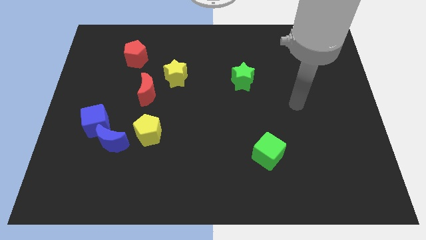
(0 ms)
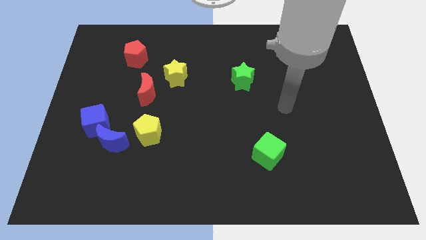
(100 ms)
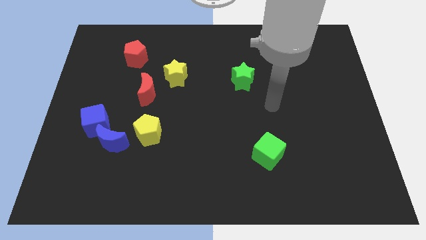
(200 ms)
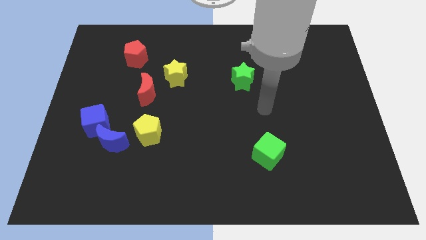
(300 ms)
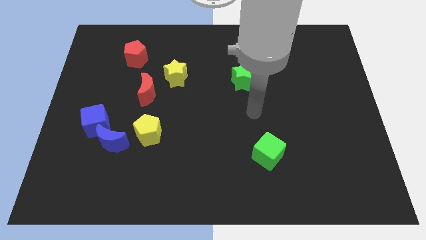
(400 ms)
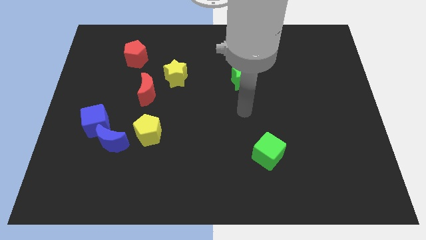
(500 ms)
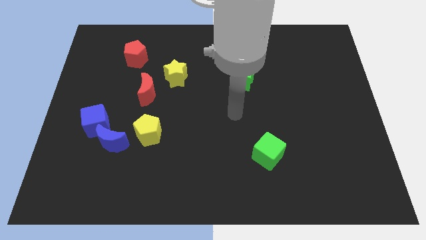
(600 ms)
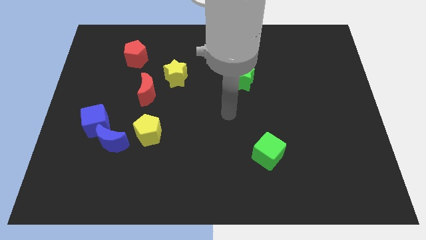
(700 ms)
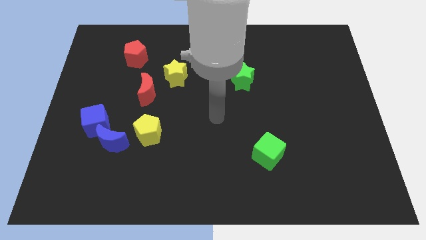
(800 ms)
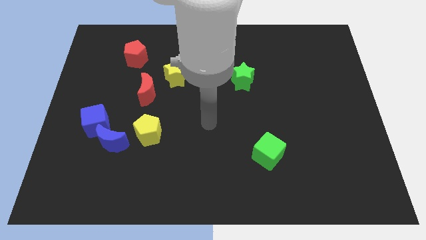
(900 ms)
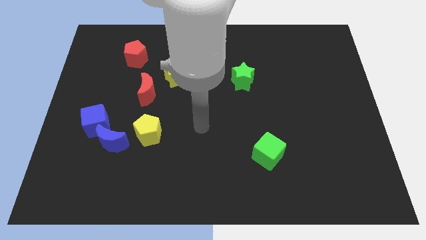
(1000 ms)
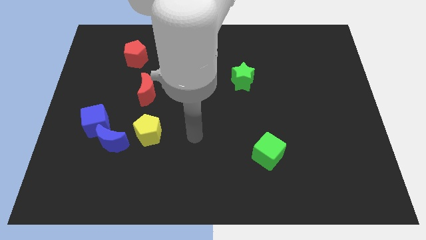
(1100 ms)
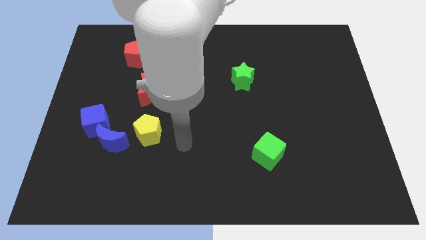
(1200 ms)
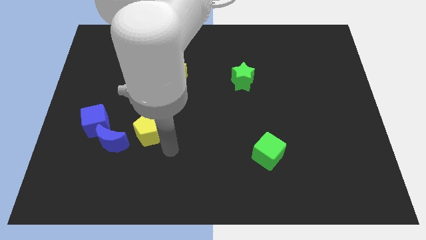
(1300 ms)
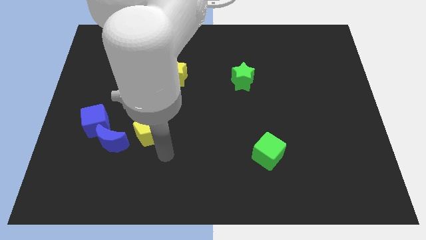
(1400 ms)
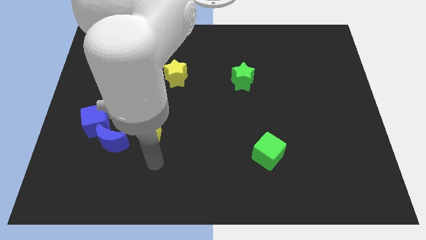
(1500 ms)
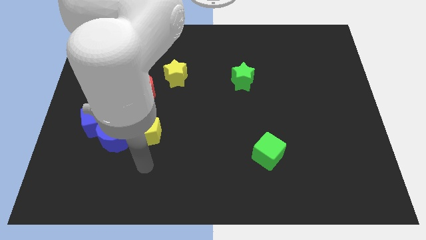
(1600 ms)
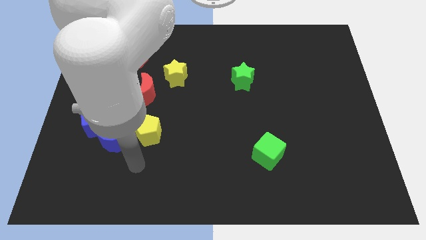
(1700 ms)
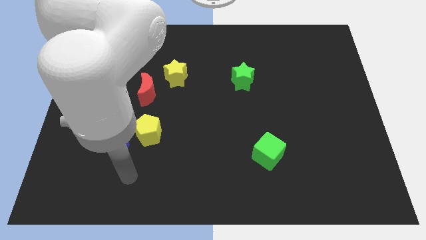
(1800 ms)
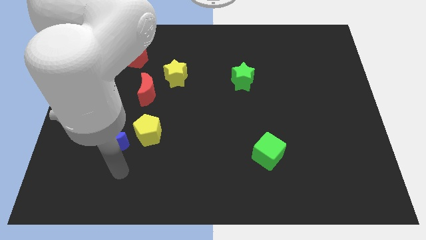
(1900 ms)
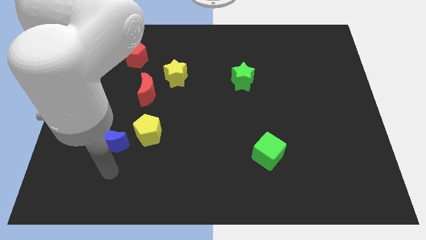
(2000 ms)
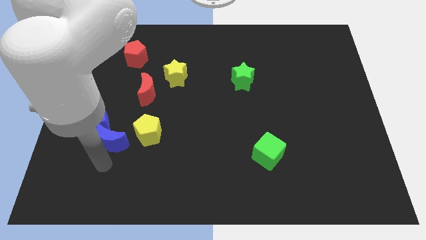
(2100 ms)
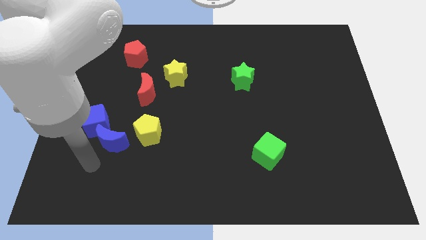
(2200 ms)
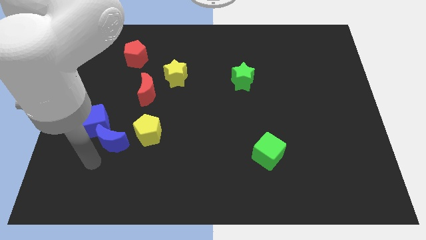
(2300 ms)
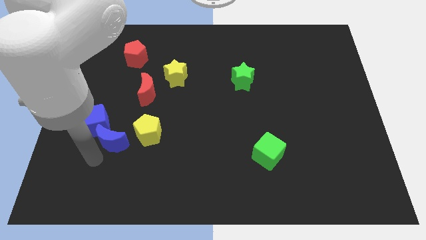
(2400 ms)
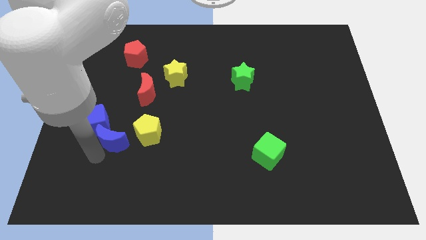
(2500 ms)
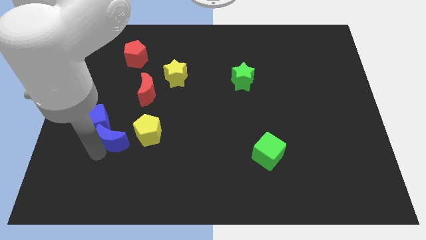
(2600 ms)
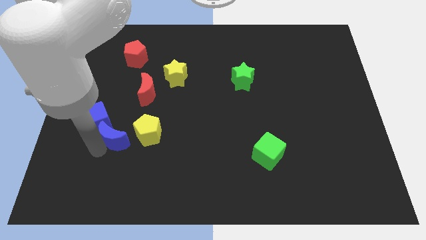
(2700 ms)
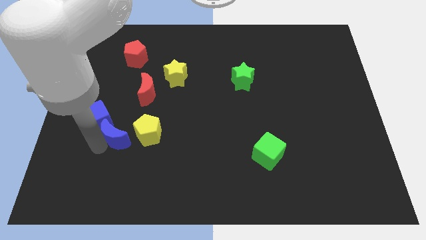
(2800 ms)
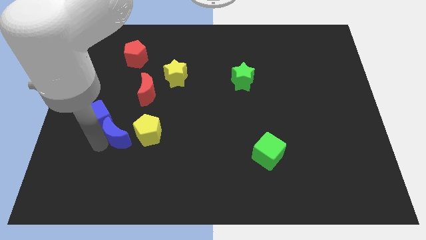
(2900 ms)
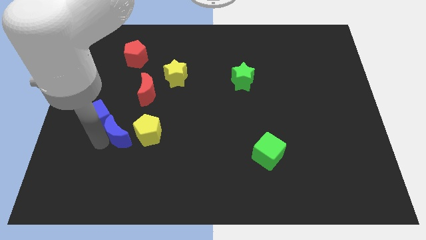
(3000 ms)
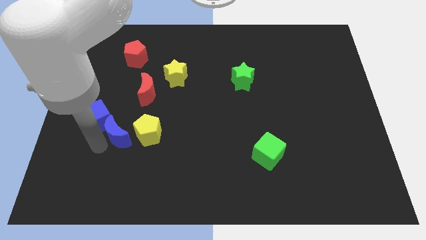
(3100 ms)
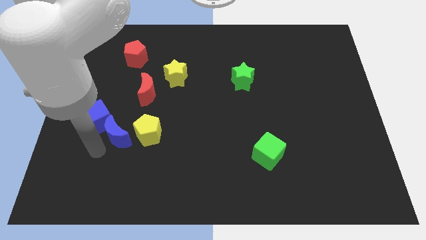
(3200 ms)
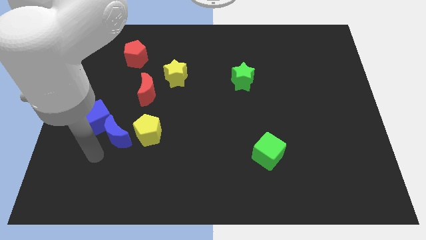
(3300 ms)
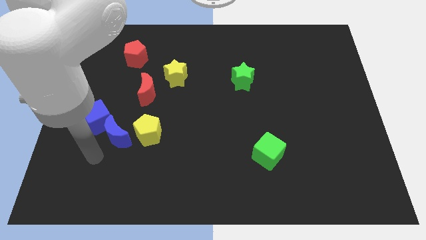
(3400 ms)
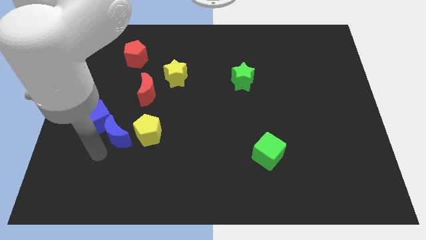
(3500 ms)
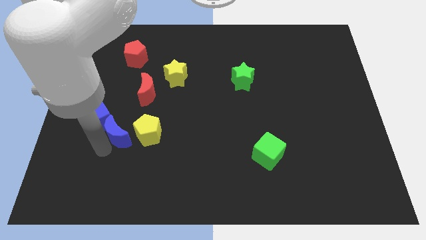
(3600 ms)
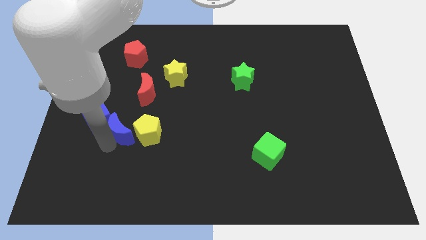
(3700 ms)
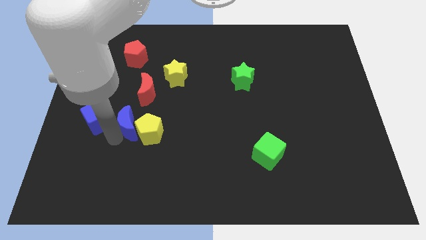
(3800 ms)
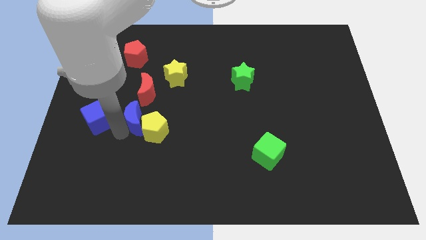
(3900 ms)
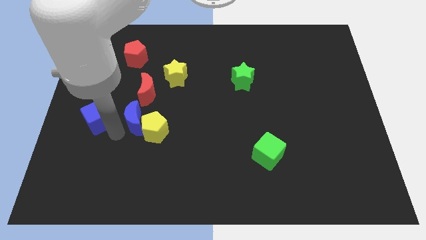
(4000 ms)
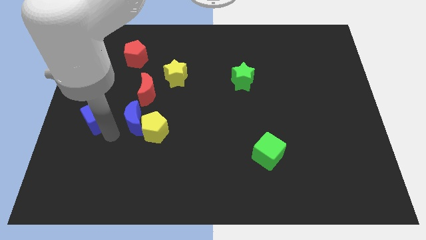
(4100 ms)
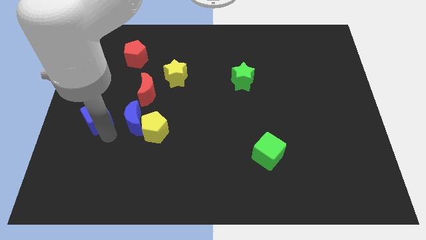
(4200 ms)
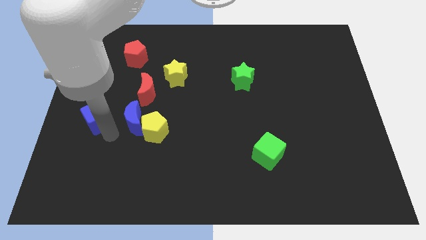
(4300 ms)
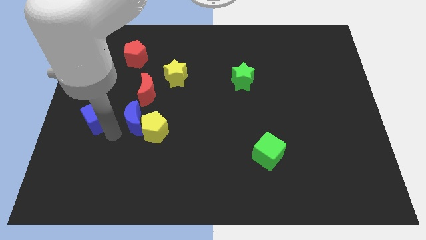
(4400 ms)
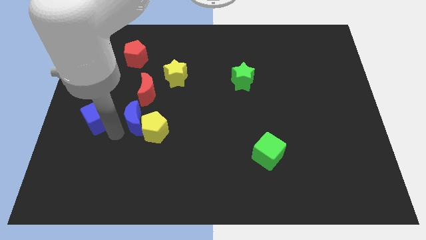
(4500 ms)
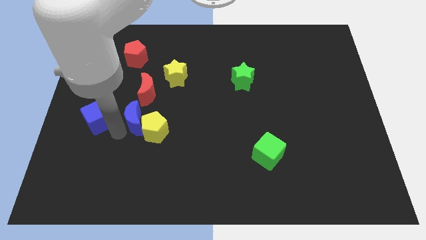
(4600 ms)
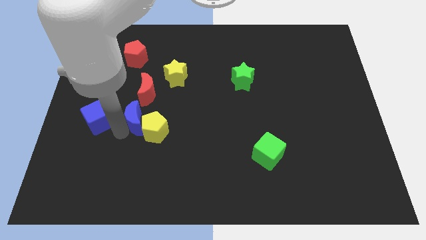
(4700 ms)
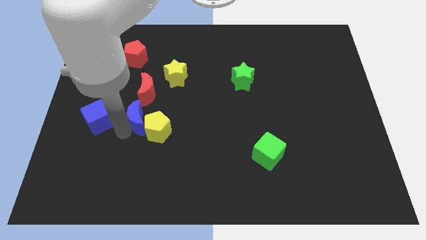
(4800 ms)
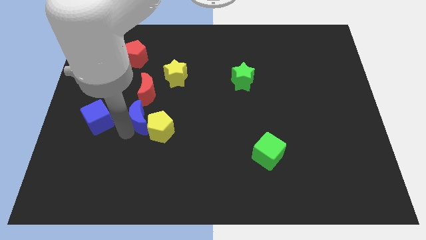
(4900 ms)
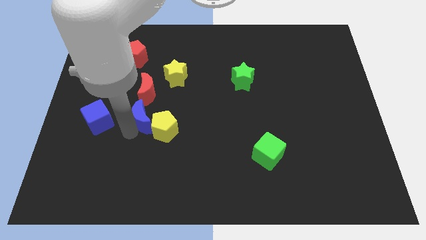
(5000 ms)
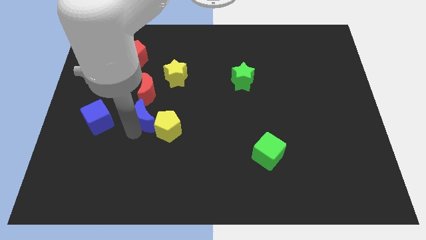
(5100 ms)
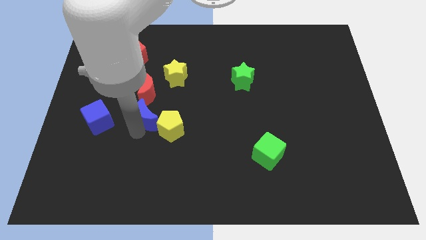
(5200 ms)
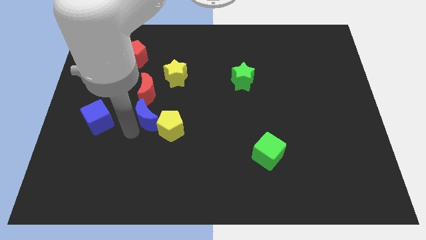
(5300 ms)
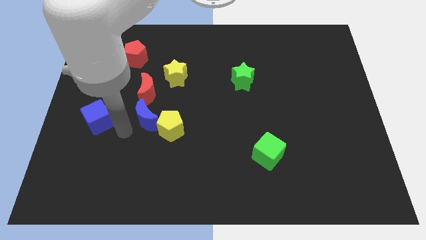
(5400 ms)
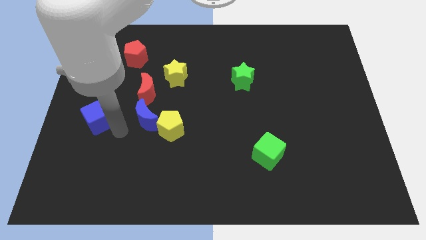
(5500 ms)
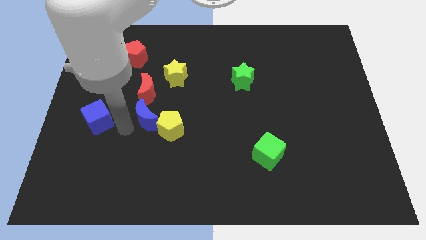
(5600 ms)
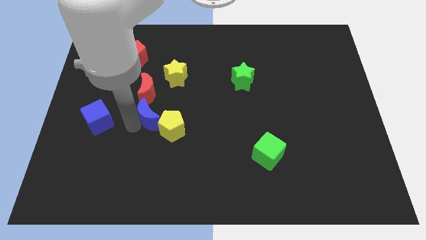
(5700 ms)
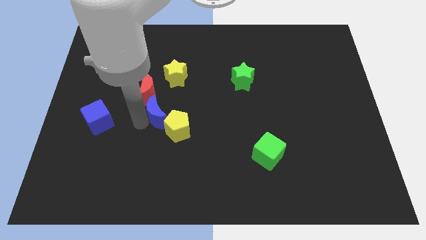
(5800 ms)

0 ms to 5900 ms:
move the blue moon to the bottom side of the yellow star

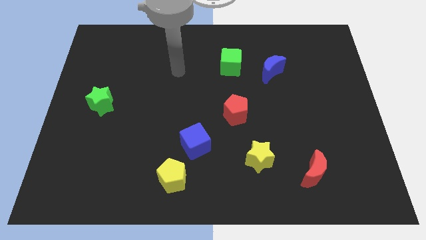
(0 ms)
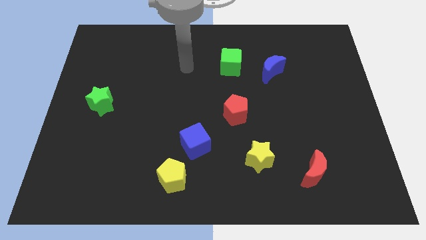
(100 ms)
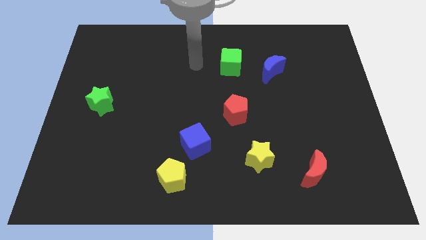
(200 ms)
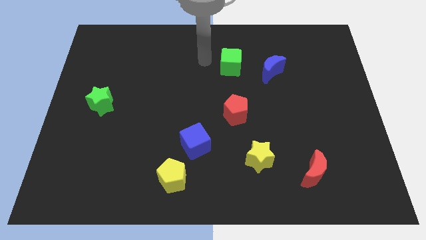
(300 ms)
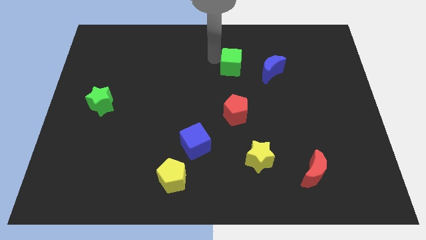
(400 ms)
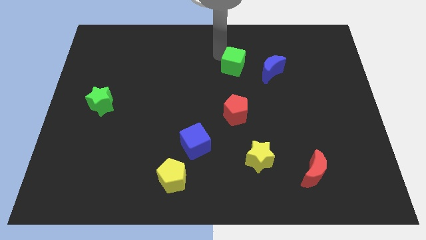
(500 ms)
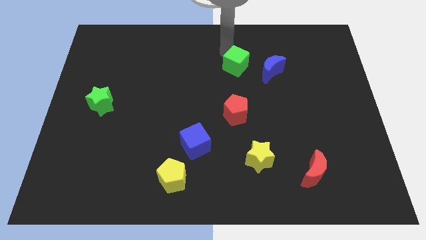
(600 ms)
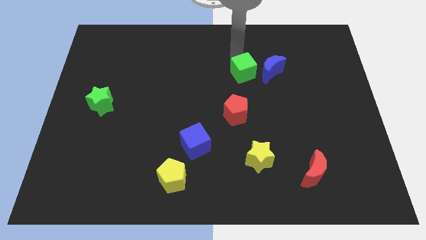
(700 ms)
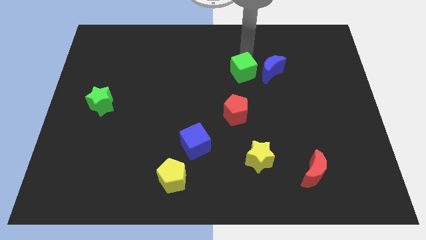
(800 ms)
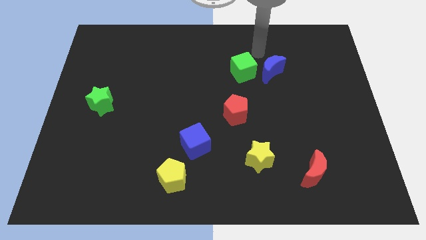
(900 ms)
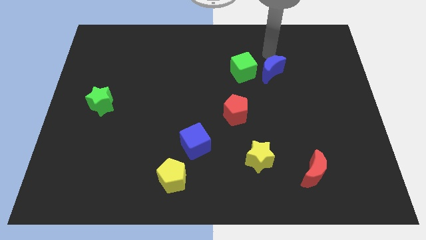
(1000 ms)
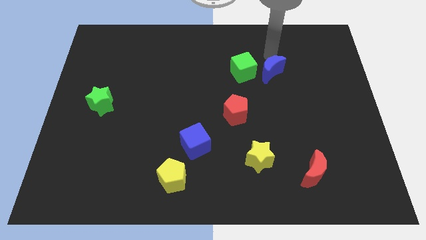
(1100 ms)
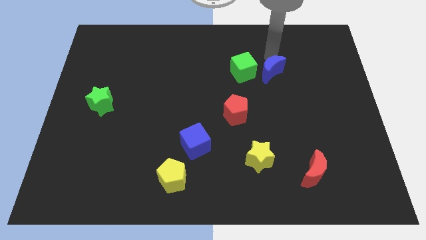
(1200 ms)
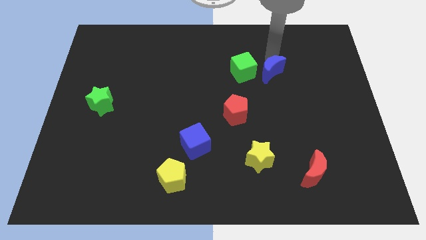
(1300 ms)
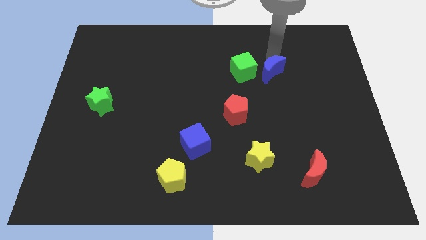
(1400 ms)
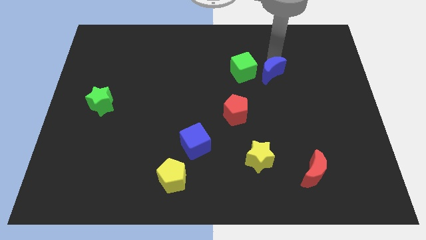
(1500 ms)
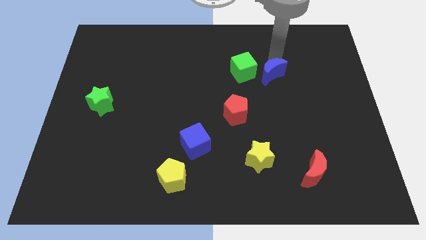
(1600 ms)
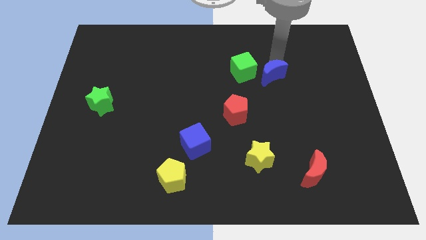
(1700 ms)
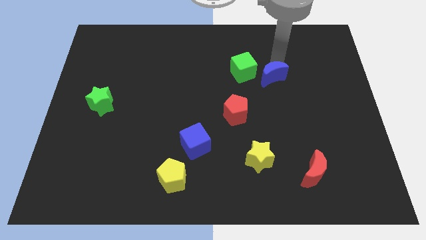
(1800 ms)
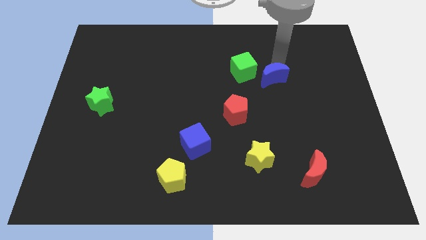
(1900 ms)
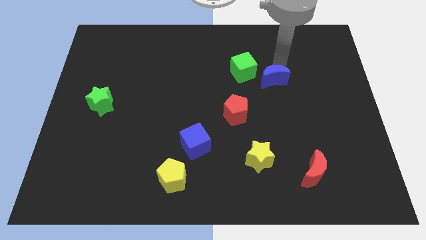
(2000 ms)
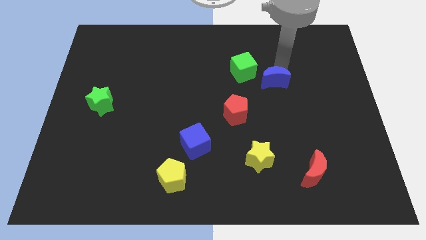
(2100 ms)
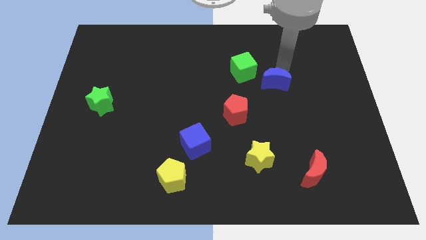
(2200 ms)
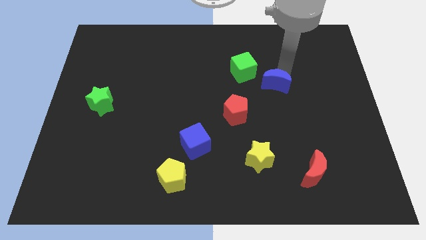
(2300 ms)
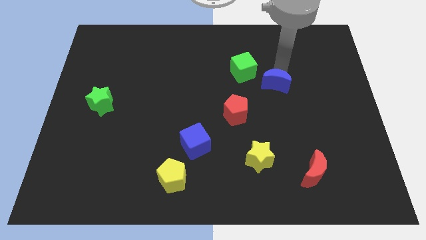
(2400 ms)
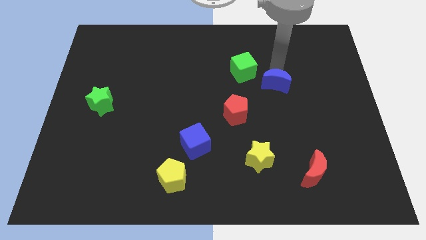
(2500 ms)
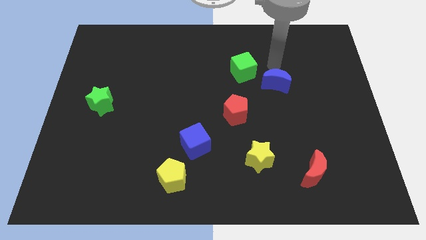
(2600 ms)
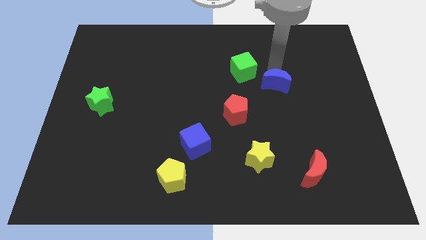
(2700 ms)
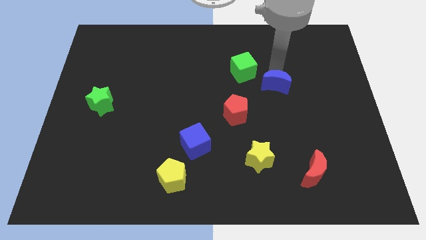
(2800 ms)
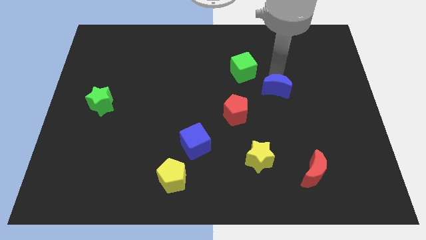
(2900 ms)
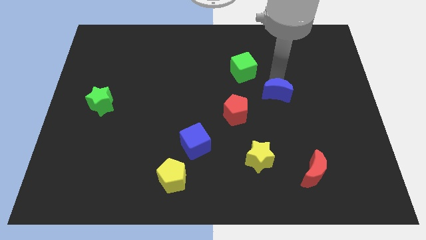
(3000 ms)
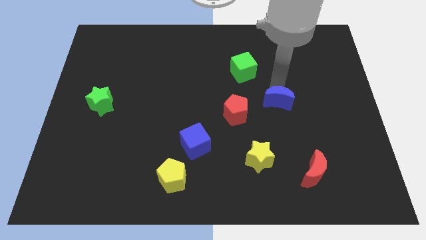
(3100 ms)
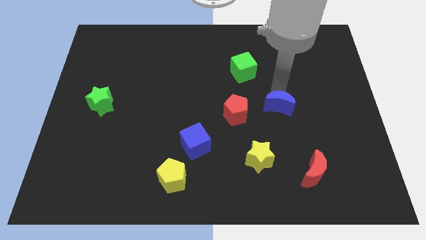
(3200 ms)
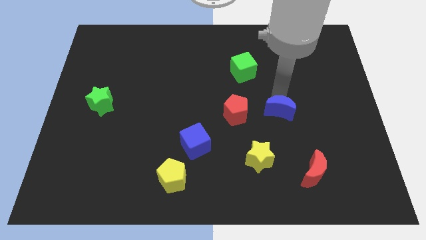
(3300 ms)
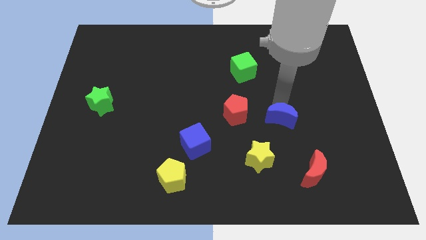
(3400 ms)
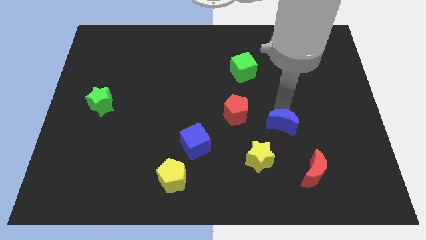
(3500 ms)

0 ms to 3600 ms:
put the blue moon to the top right of the yellow star
